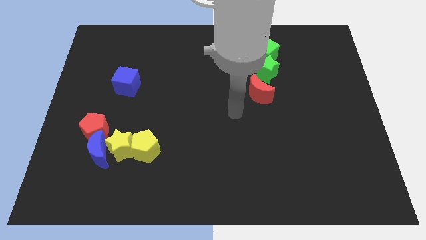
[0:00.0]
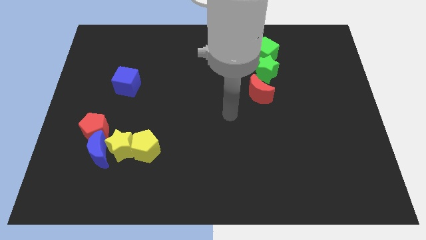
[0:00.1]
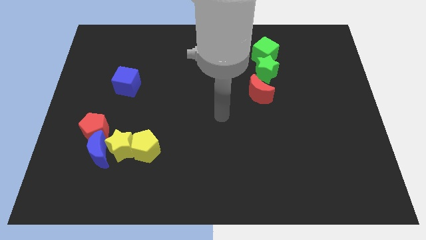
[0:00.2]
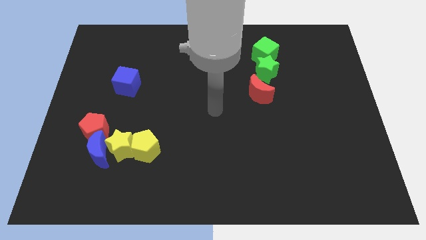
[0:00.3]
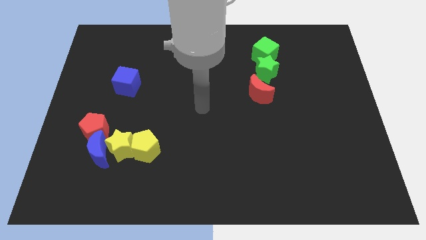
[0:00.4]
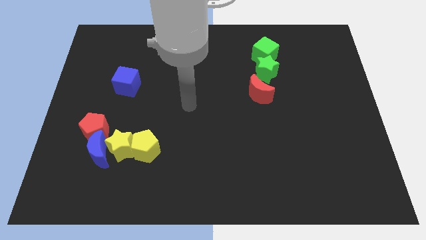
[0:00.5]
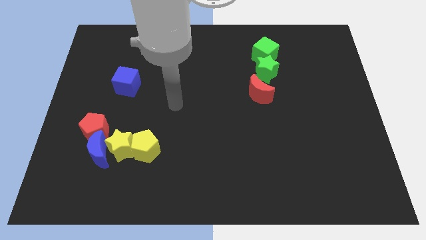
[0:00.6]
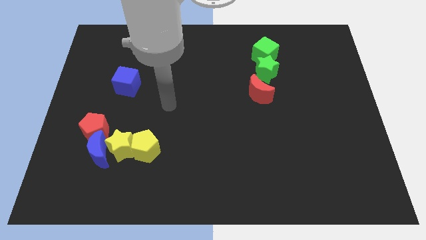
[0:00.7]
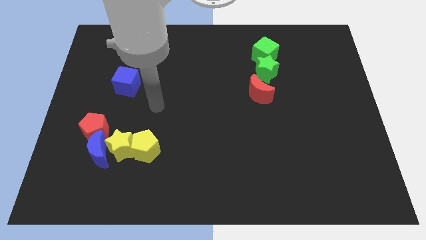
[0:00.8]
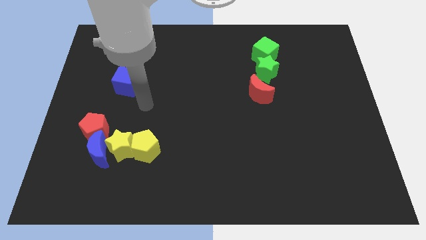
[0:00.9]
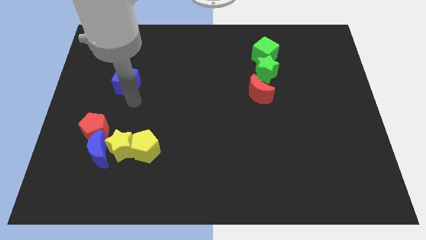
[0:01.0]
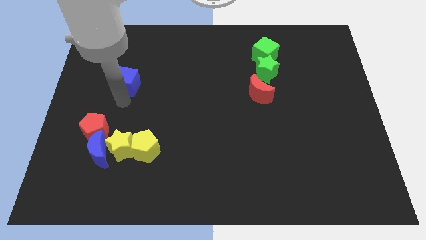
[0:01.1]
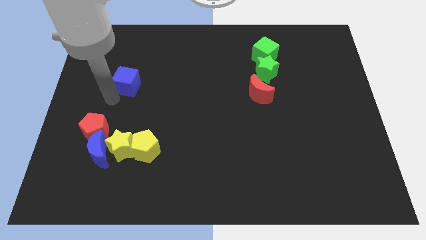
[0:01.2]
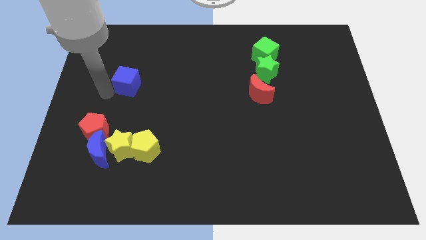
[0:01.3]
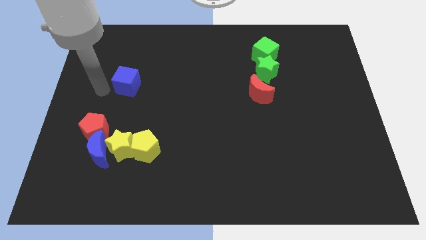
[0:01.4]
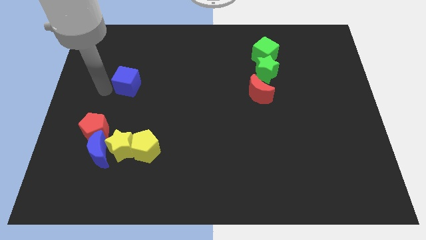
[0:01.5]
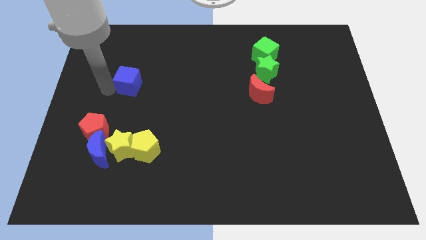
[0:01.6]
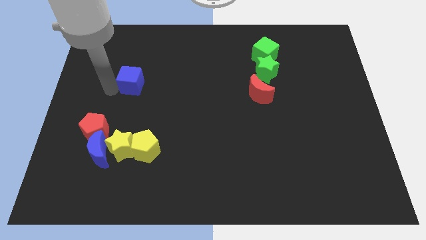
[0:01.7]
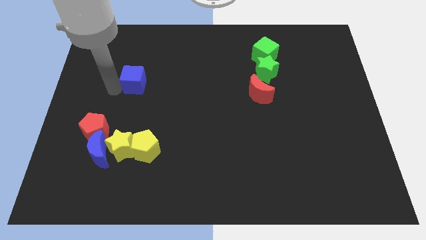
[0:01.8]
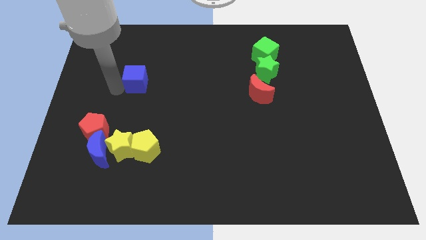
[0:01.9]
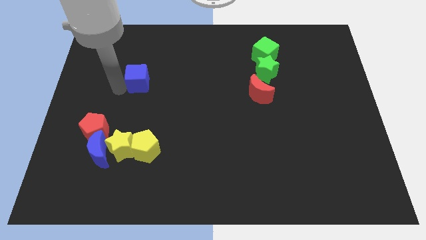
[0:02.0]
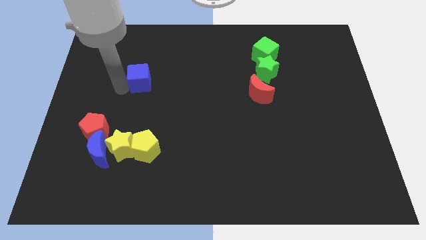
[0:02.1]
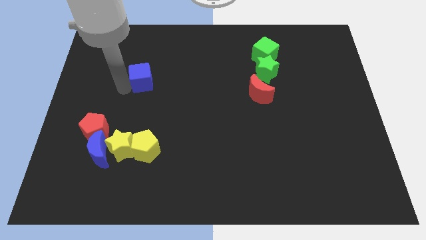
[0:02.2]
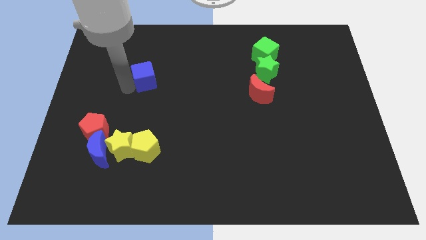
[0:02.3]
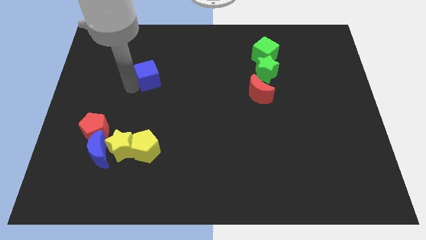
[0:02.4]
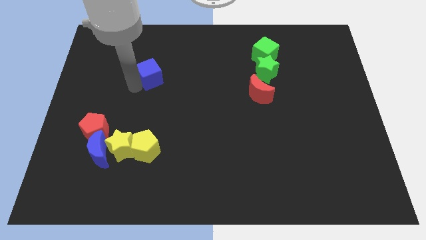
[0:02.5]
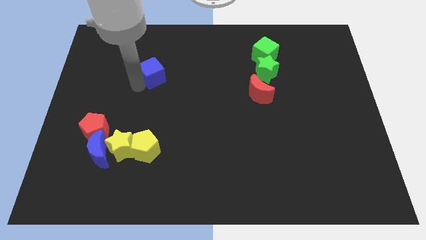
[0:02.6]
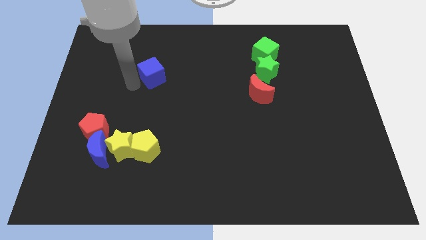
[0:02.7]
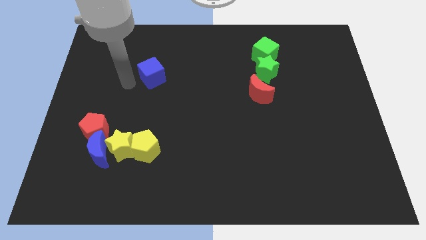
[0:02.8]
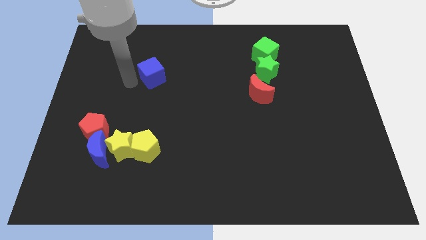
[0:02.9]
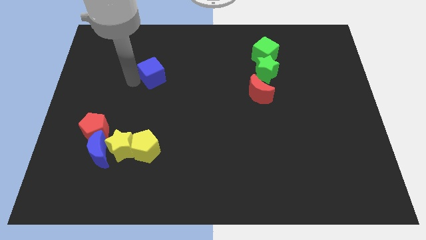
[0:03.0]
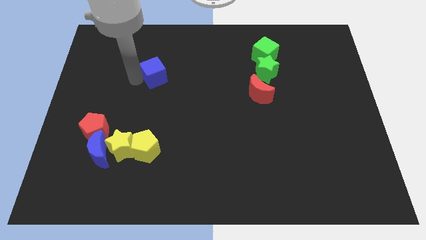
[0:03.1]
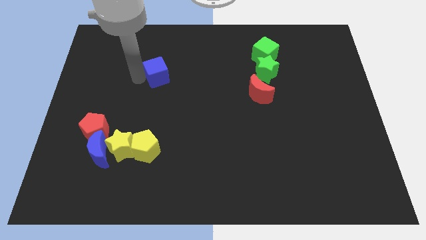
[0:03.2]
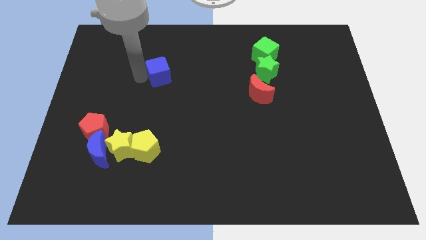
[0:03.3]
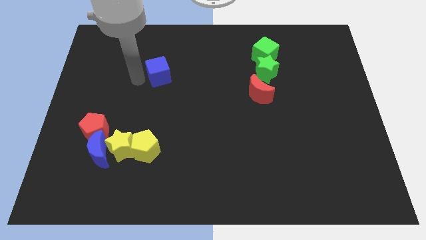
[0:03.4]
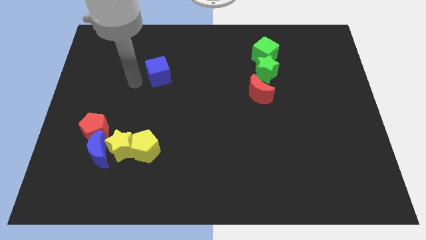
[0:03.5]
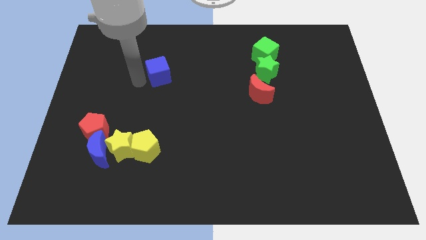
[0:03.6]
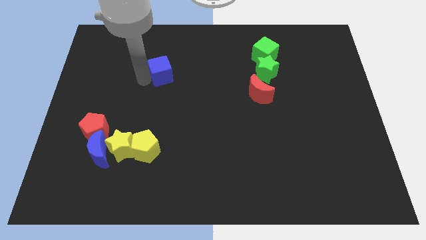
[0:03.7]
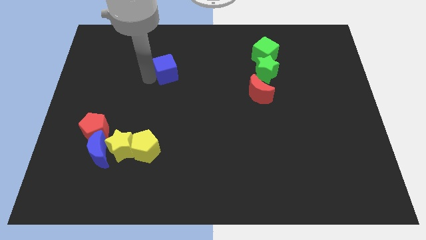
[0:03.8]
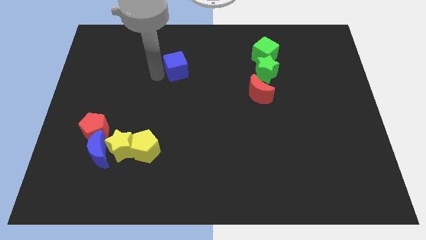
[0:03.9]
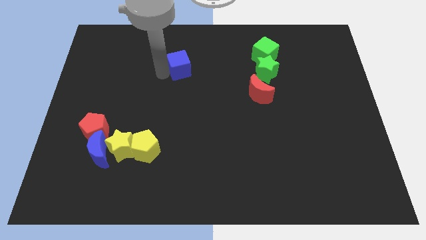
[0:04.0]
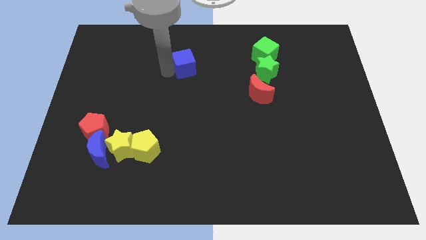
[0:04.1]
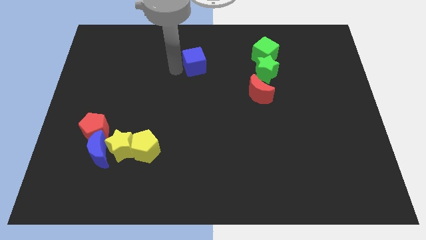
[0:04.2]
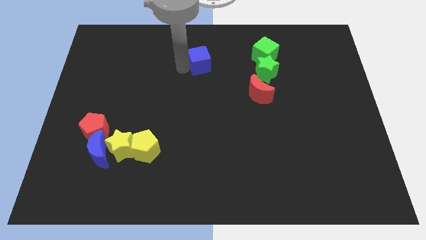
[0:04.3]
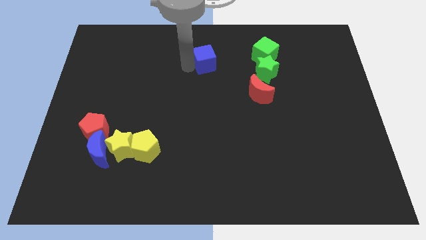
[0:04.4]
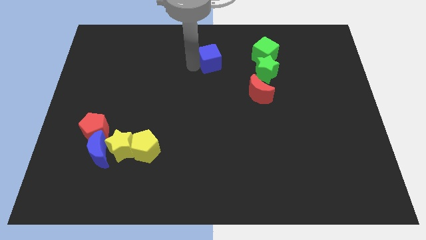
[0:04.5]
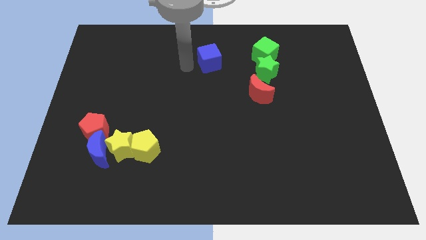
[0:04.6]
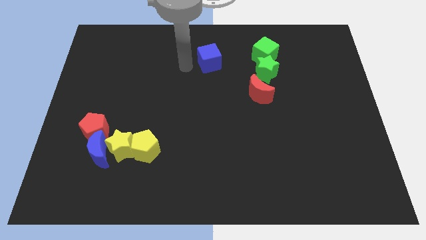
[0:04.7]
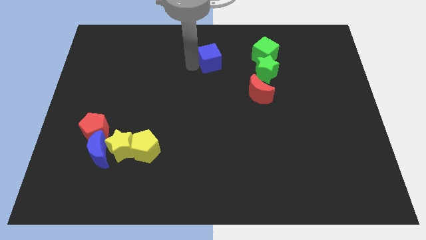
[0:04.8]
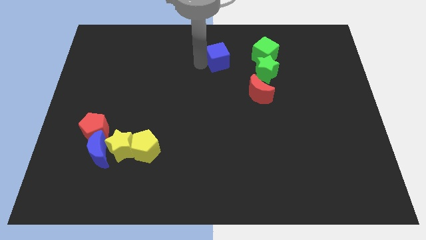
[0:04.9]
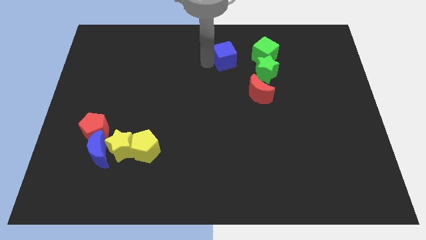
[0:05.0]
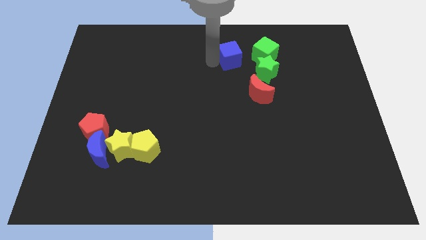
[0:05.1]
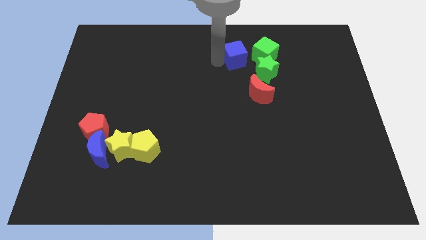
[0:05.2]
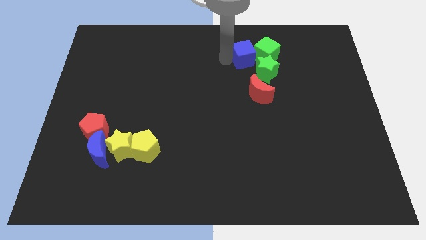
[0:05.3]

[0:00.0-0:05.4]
push the blue cube towards the green cube

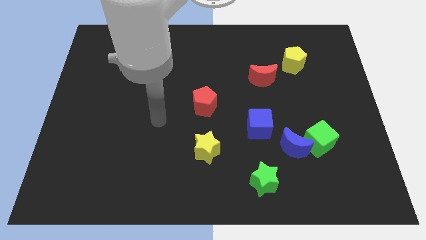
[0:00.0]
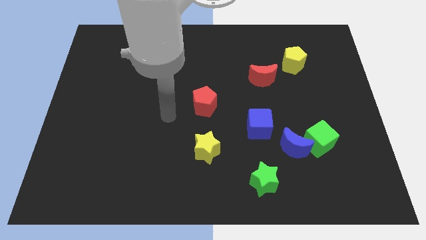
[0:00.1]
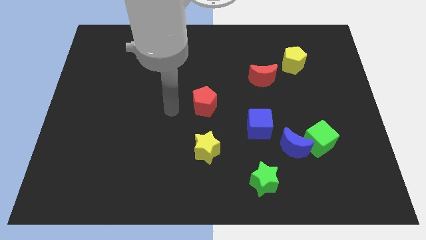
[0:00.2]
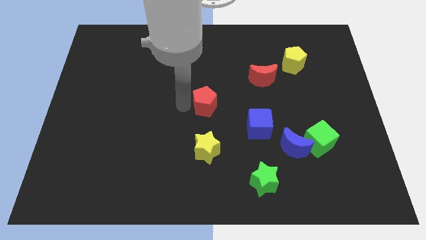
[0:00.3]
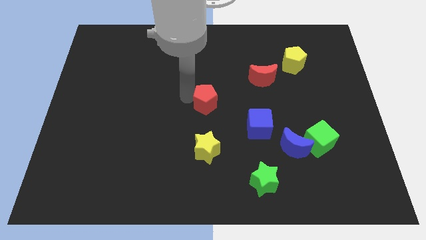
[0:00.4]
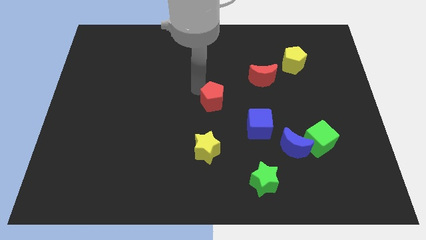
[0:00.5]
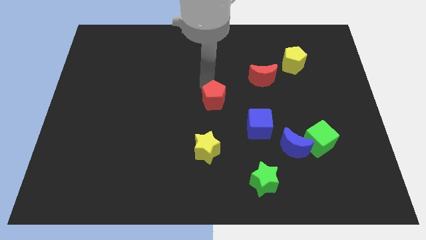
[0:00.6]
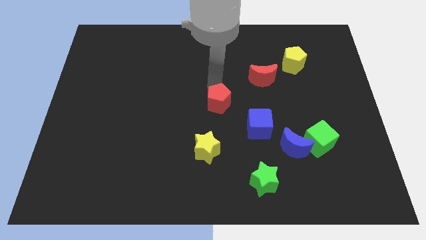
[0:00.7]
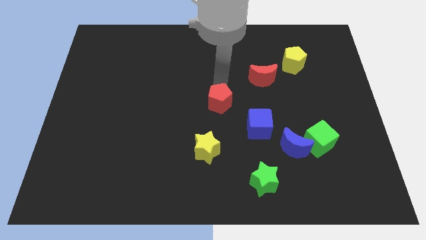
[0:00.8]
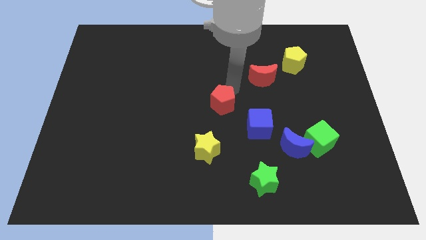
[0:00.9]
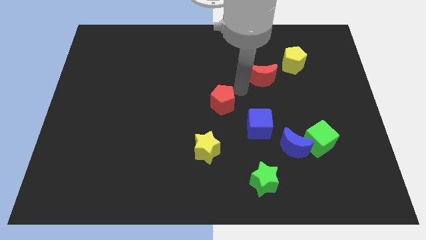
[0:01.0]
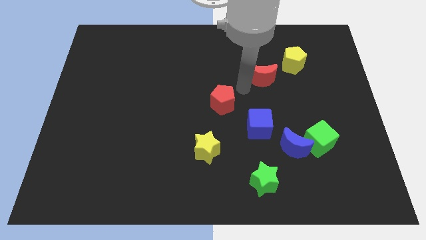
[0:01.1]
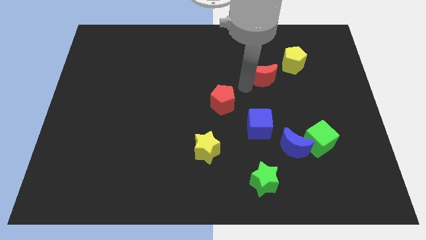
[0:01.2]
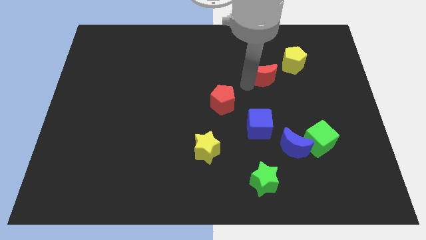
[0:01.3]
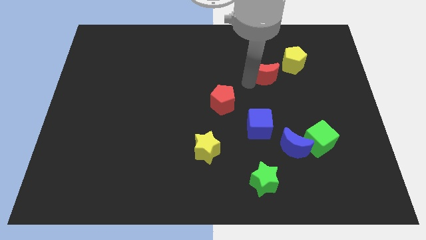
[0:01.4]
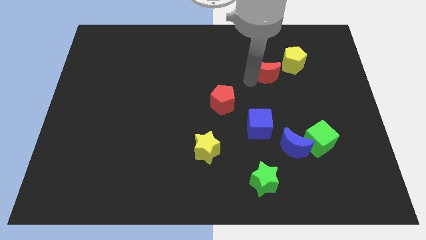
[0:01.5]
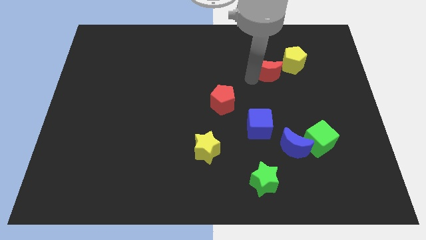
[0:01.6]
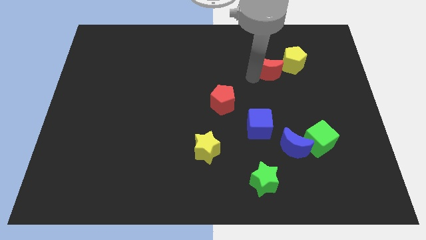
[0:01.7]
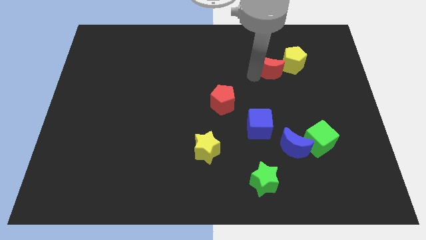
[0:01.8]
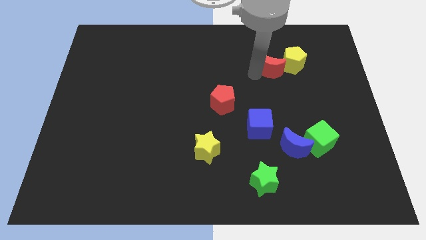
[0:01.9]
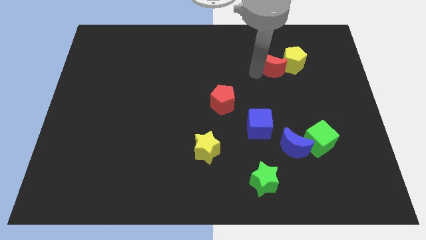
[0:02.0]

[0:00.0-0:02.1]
put the red moon next to the yellow pentagon
